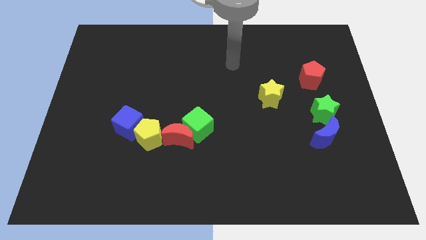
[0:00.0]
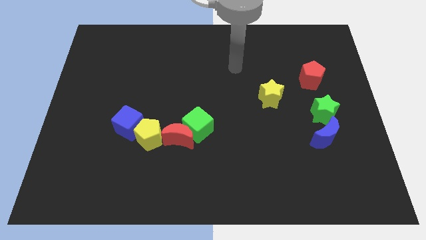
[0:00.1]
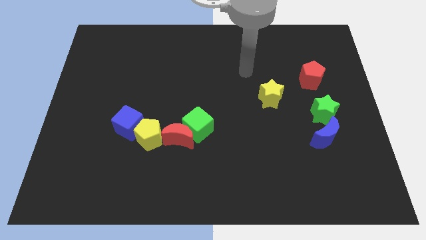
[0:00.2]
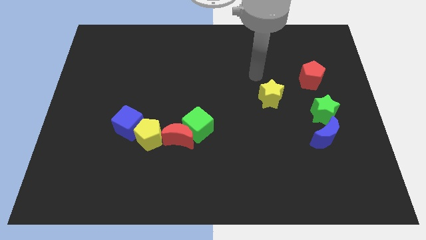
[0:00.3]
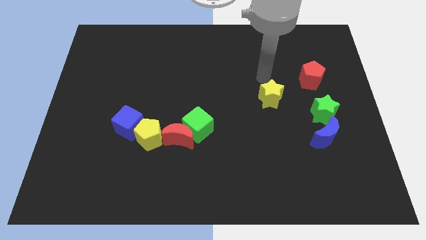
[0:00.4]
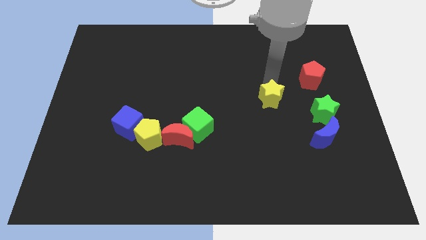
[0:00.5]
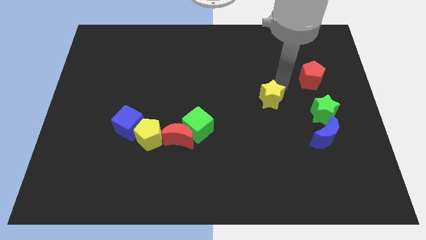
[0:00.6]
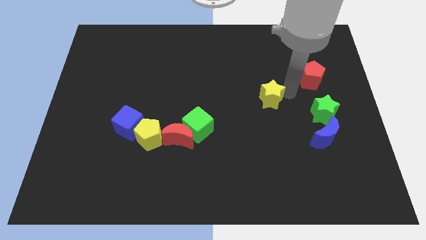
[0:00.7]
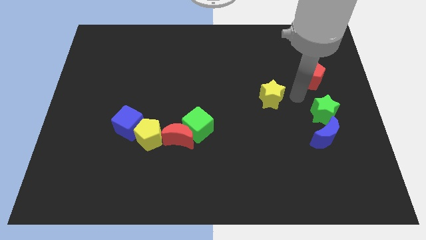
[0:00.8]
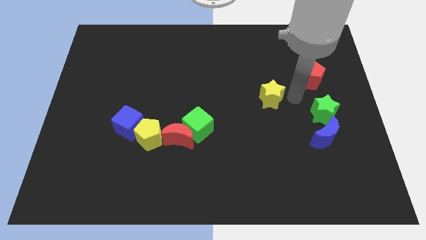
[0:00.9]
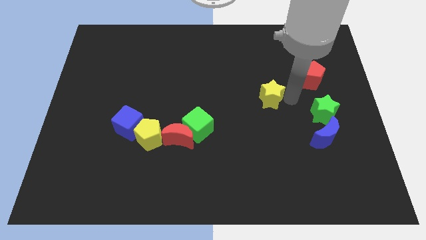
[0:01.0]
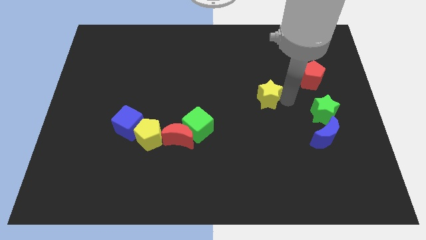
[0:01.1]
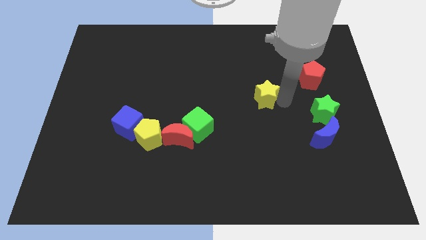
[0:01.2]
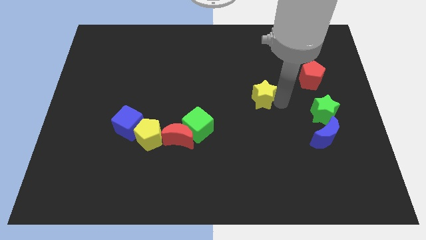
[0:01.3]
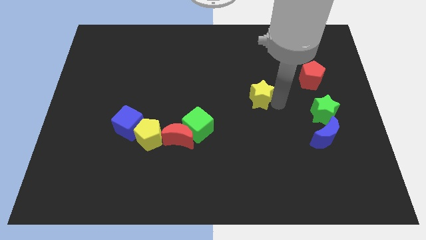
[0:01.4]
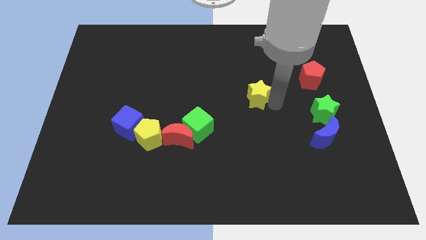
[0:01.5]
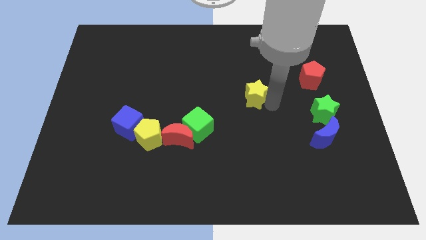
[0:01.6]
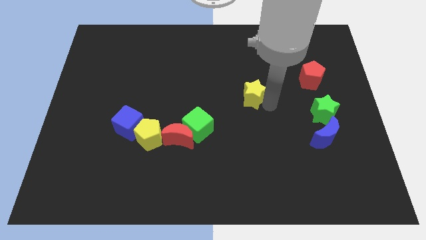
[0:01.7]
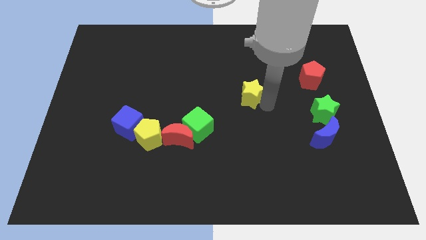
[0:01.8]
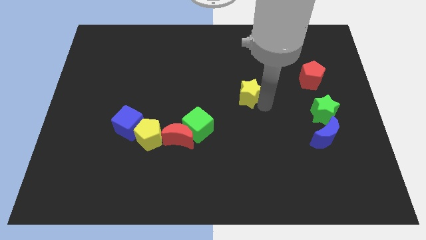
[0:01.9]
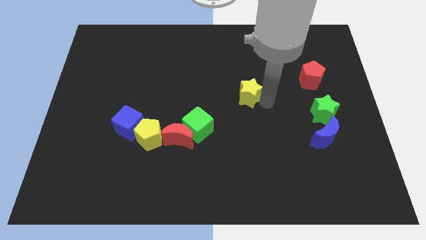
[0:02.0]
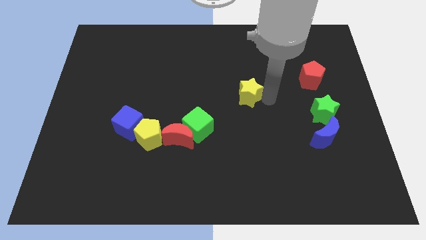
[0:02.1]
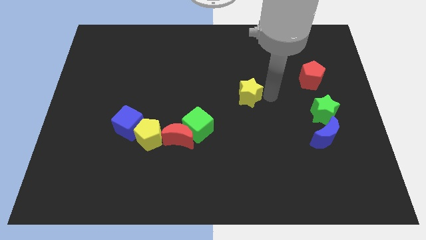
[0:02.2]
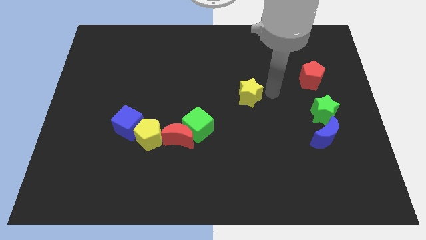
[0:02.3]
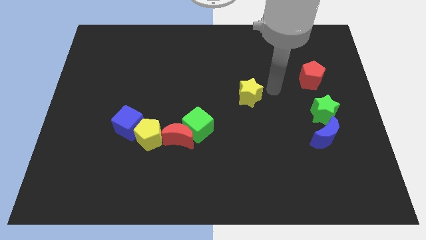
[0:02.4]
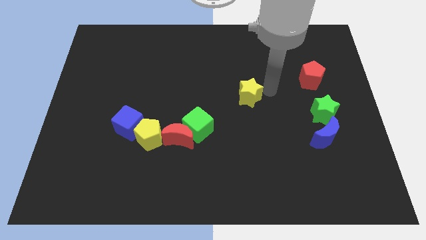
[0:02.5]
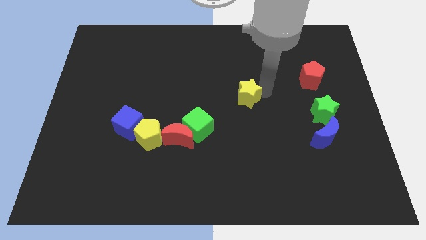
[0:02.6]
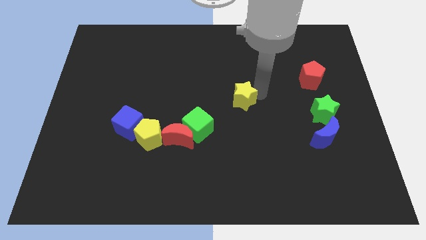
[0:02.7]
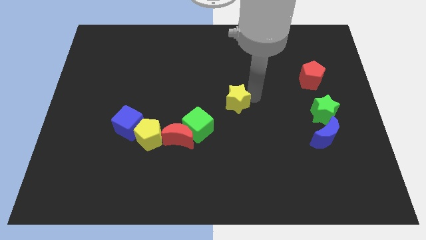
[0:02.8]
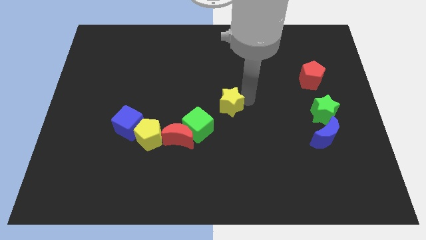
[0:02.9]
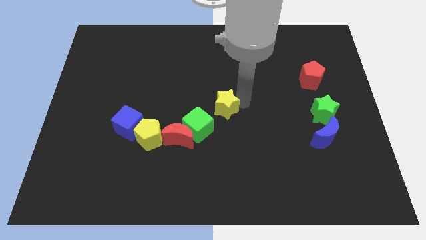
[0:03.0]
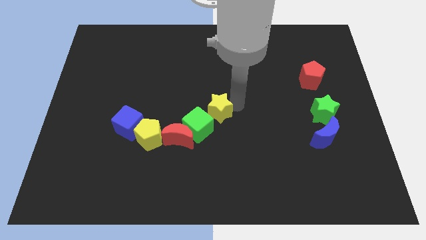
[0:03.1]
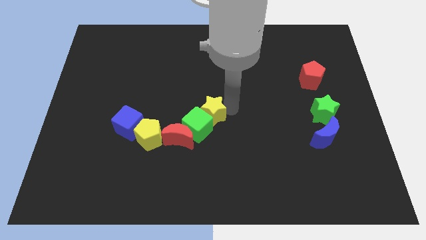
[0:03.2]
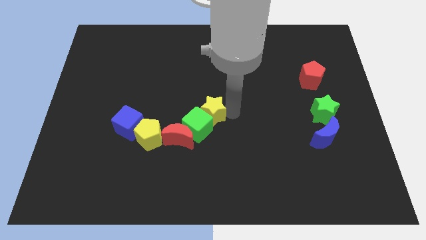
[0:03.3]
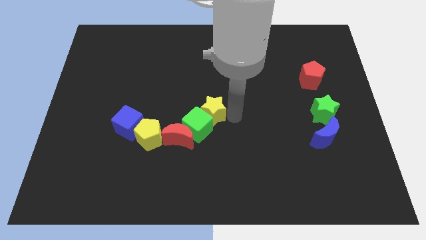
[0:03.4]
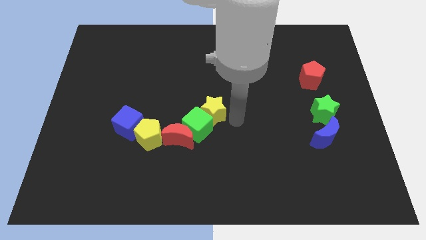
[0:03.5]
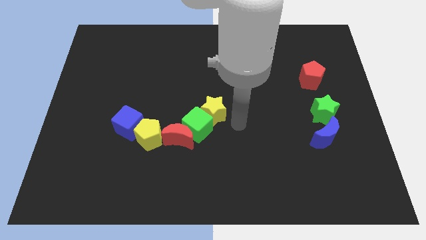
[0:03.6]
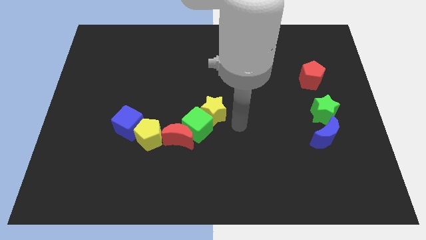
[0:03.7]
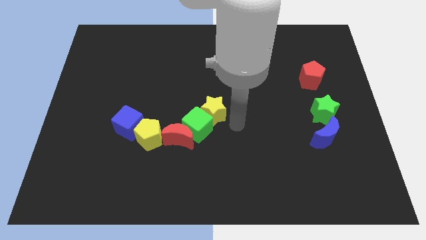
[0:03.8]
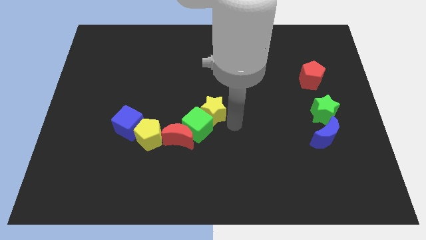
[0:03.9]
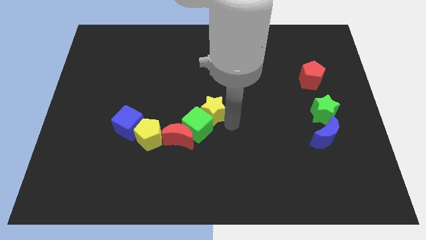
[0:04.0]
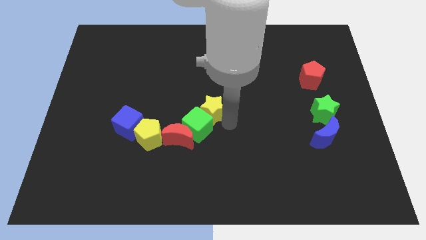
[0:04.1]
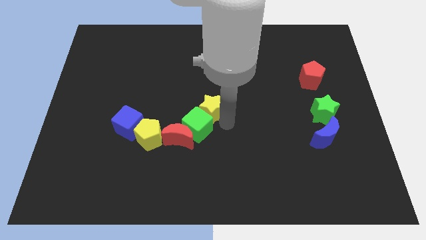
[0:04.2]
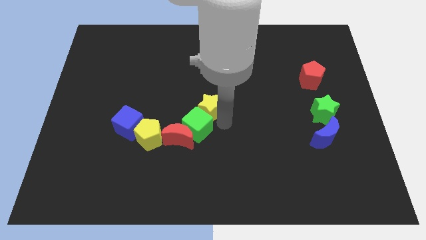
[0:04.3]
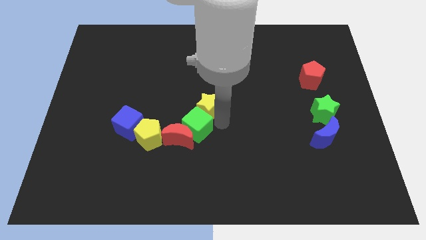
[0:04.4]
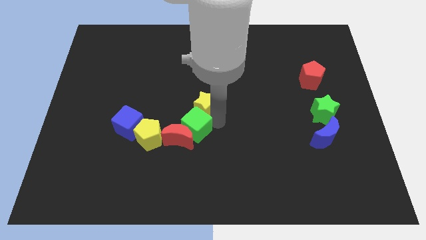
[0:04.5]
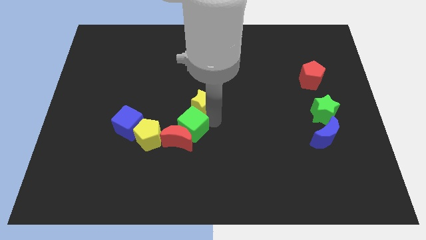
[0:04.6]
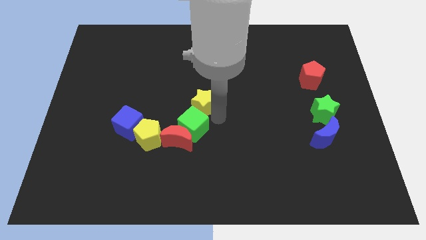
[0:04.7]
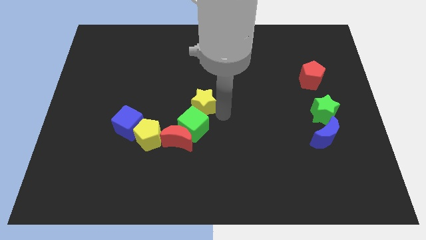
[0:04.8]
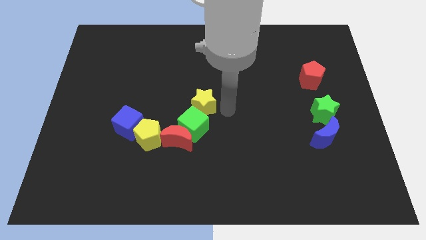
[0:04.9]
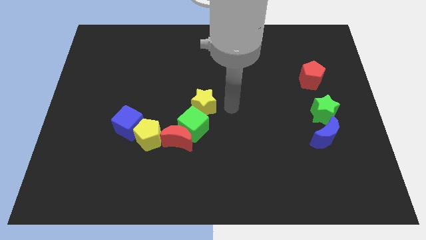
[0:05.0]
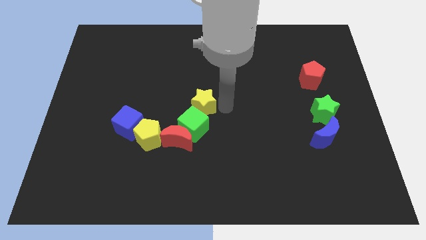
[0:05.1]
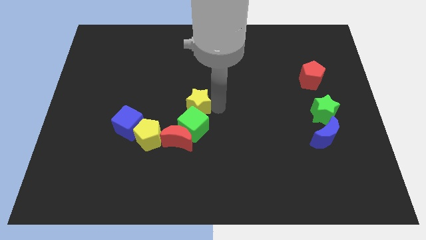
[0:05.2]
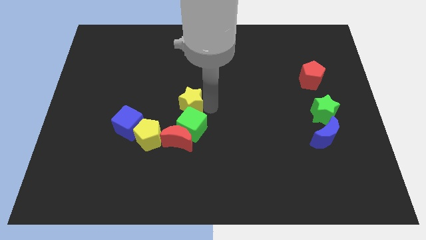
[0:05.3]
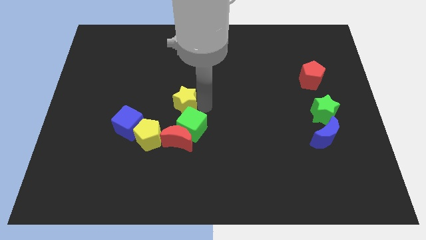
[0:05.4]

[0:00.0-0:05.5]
push the yellow star to the left

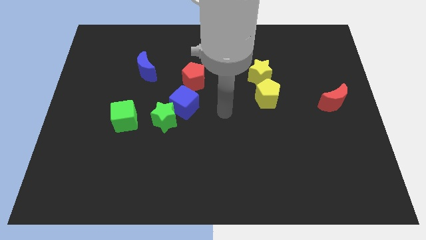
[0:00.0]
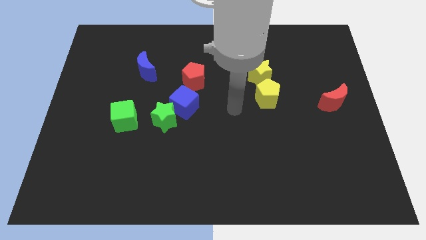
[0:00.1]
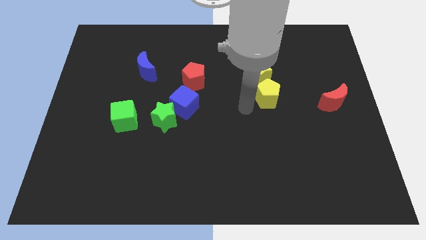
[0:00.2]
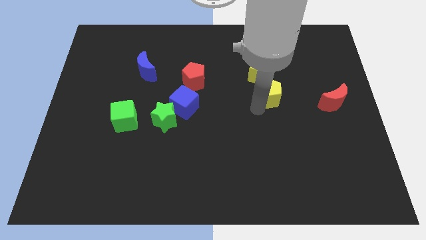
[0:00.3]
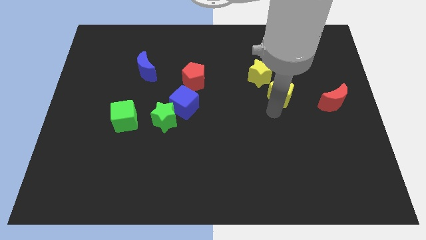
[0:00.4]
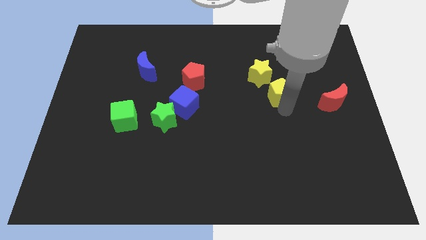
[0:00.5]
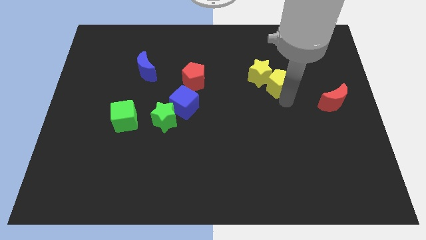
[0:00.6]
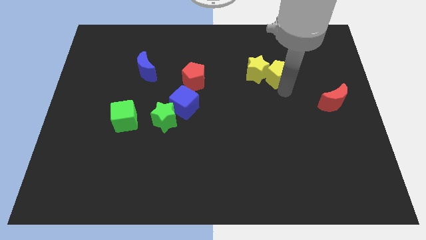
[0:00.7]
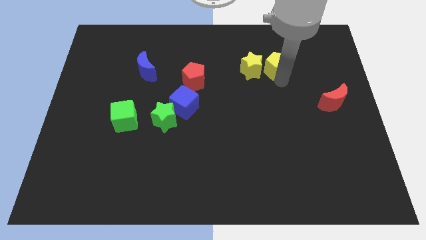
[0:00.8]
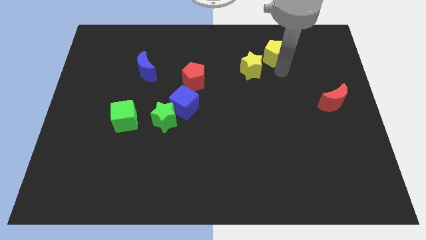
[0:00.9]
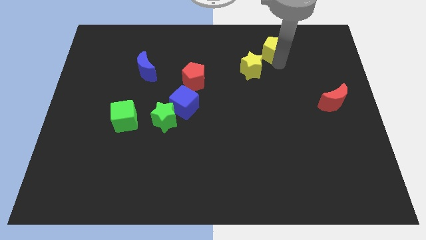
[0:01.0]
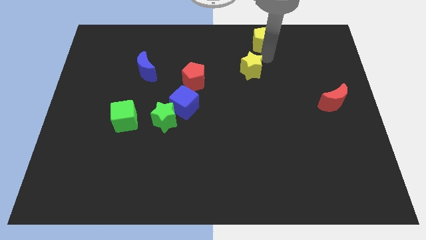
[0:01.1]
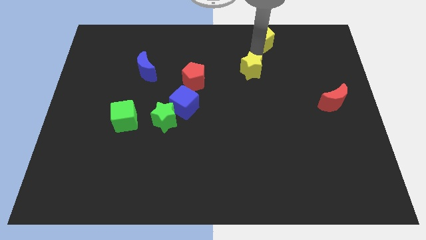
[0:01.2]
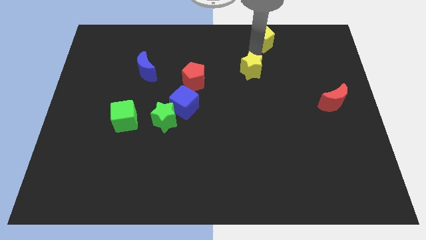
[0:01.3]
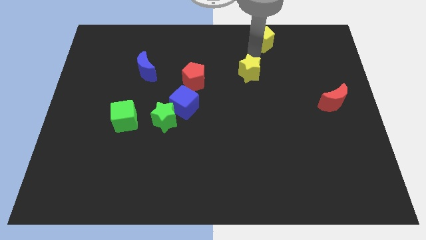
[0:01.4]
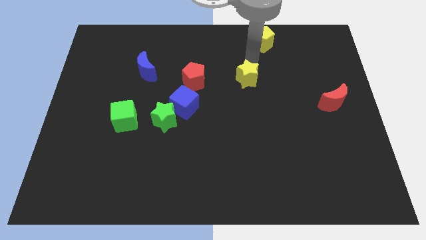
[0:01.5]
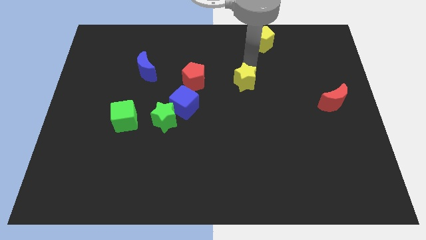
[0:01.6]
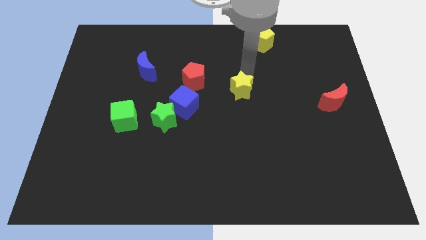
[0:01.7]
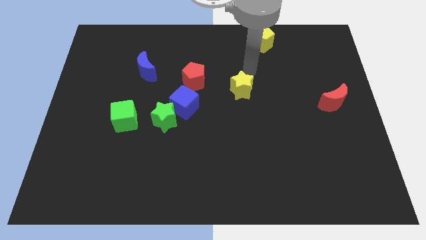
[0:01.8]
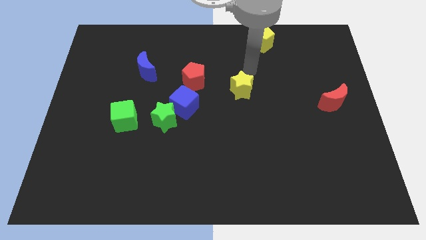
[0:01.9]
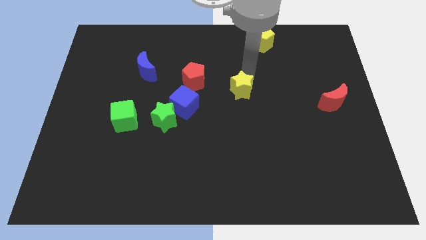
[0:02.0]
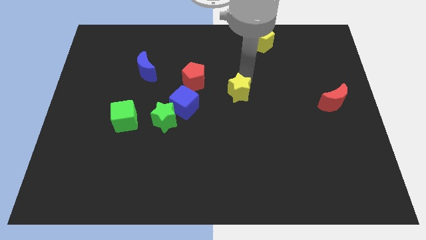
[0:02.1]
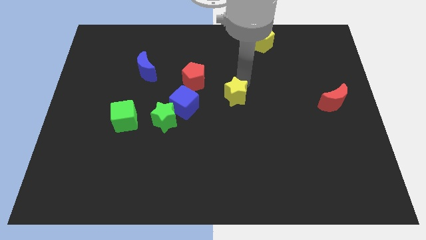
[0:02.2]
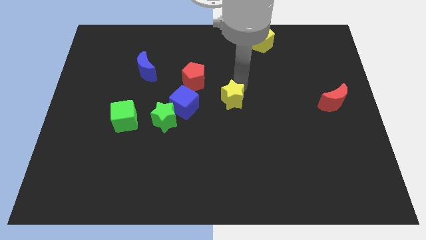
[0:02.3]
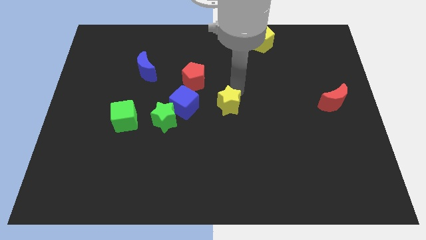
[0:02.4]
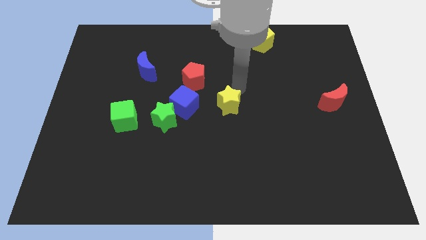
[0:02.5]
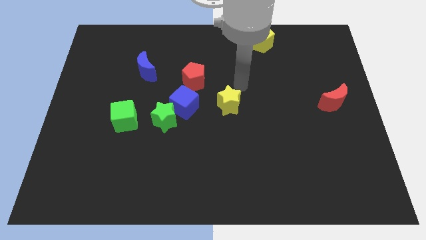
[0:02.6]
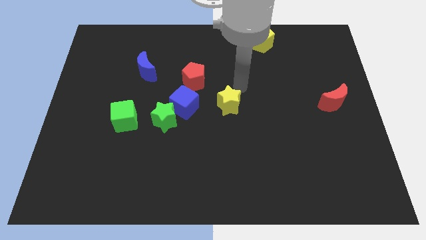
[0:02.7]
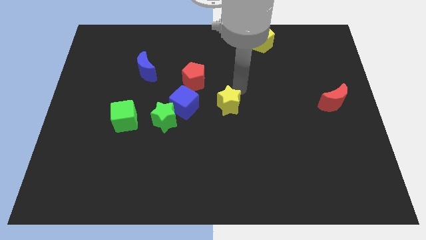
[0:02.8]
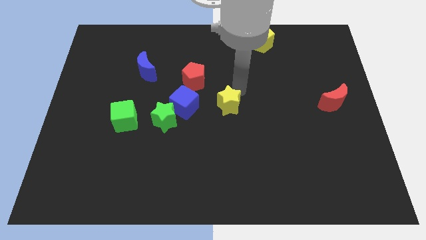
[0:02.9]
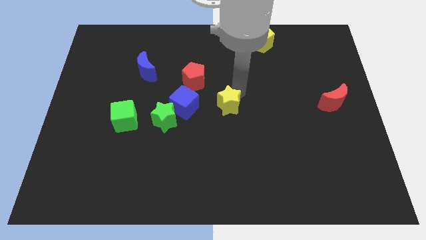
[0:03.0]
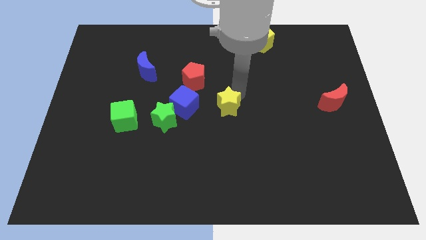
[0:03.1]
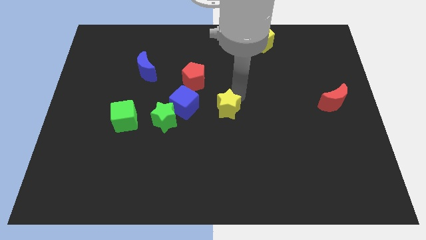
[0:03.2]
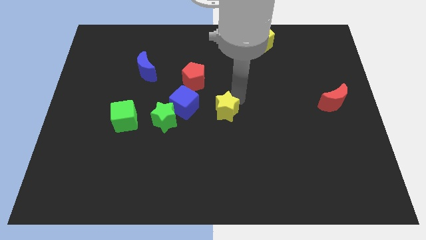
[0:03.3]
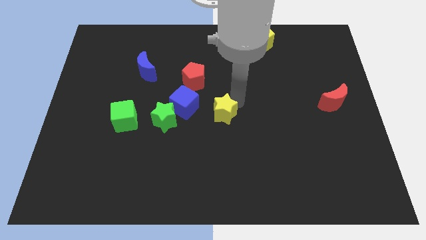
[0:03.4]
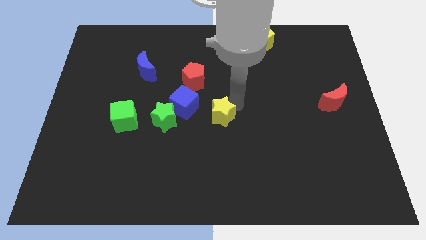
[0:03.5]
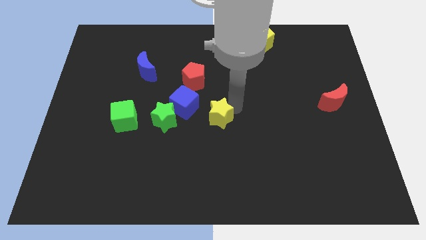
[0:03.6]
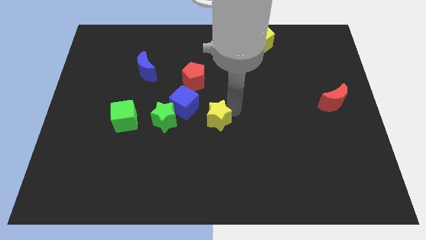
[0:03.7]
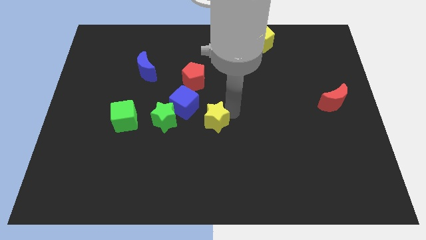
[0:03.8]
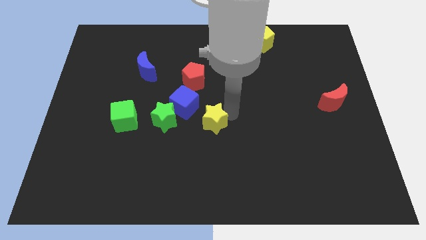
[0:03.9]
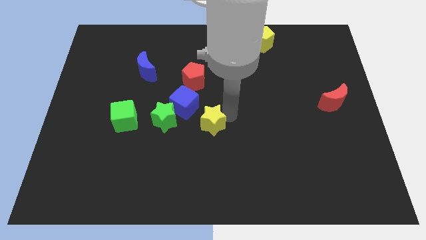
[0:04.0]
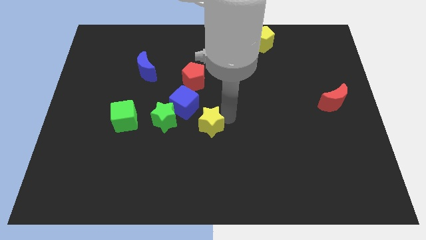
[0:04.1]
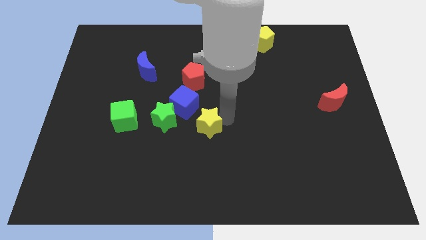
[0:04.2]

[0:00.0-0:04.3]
move the yellow star downwards and then to the left
